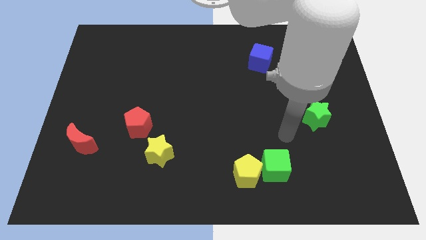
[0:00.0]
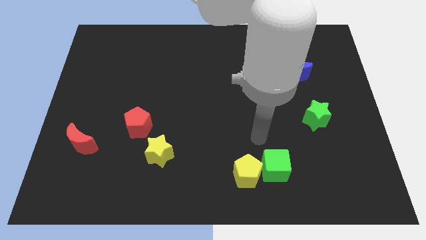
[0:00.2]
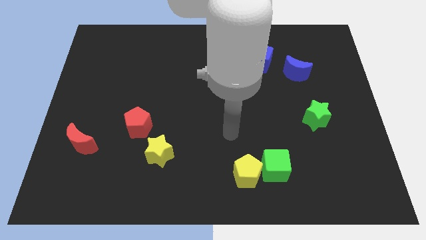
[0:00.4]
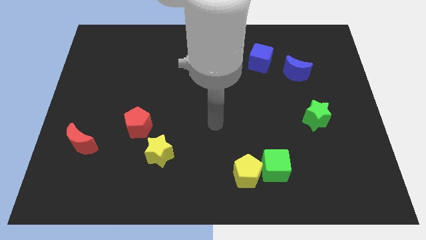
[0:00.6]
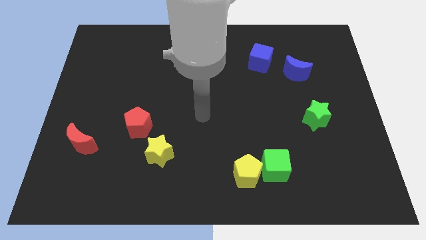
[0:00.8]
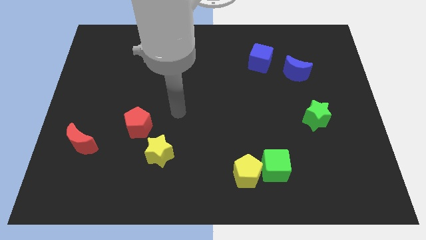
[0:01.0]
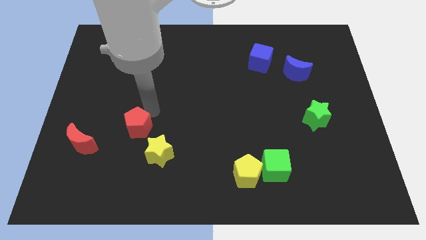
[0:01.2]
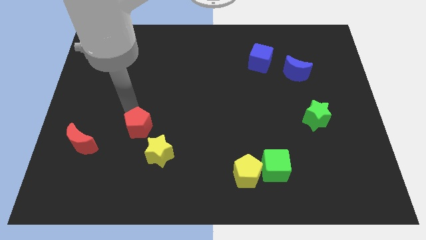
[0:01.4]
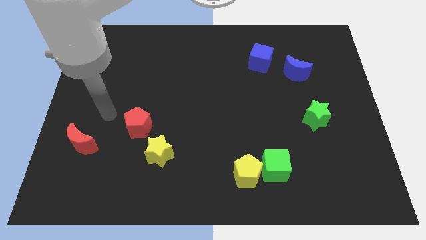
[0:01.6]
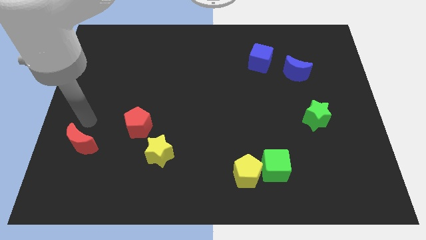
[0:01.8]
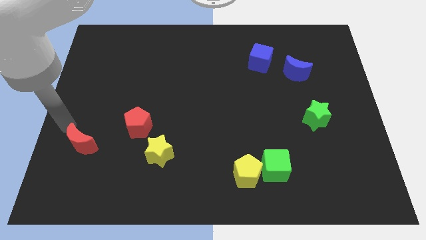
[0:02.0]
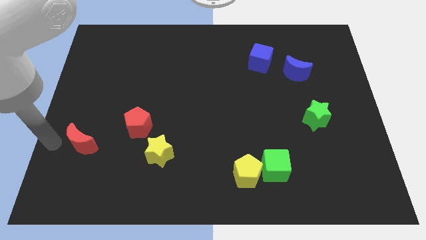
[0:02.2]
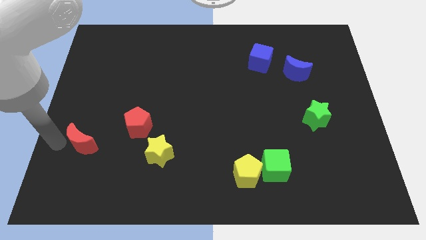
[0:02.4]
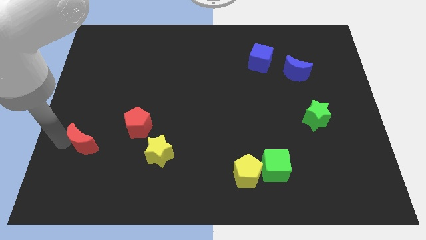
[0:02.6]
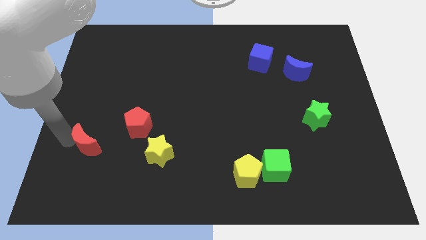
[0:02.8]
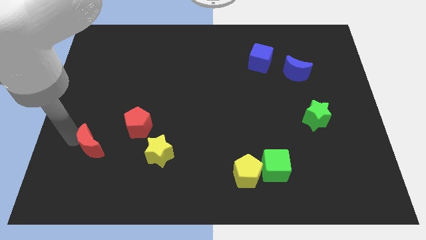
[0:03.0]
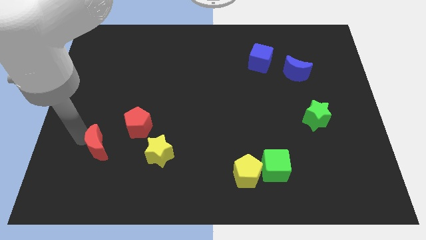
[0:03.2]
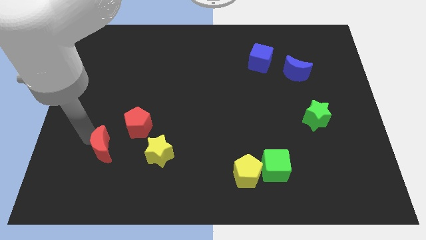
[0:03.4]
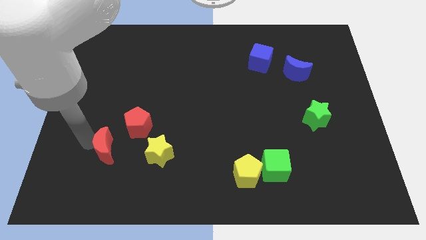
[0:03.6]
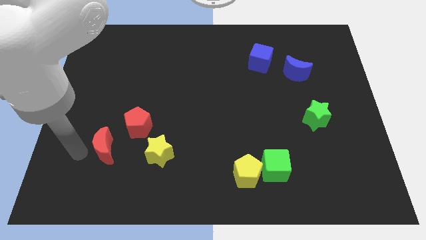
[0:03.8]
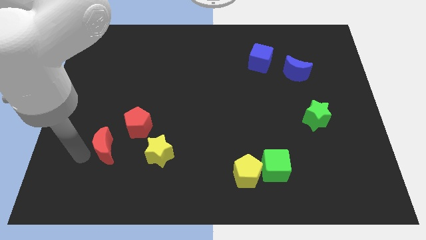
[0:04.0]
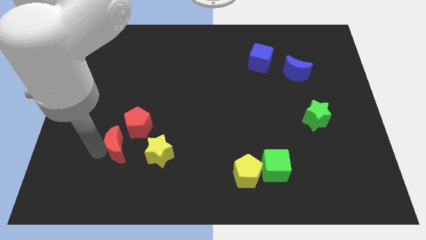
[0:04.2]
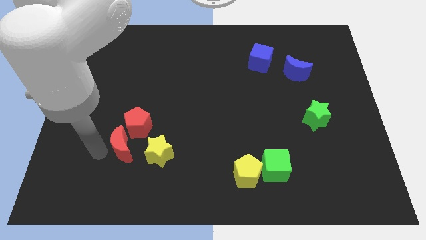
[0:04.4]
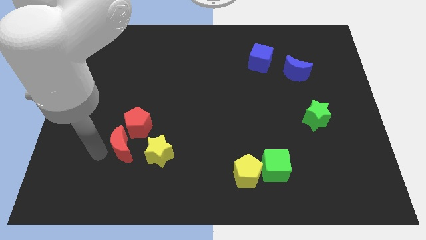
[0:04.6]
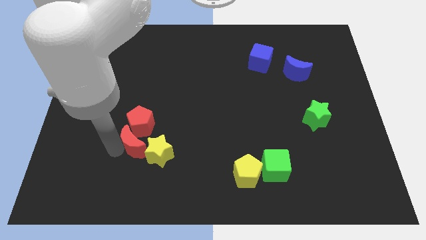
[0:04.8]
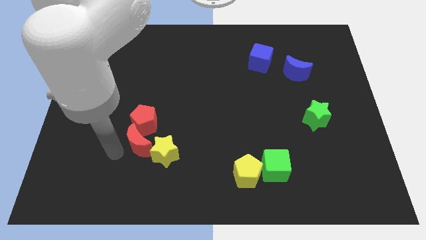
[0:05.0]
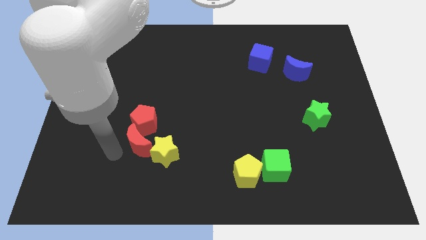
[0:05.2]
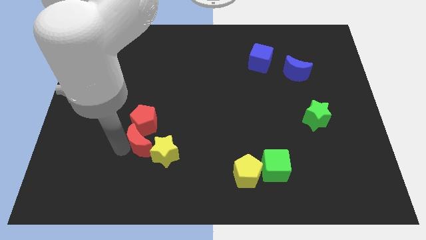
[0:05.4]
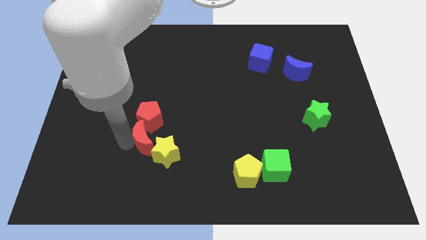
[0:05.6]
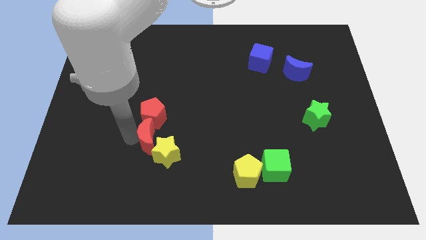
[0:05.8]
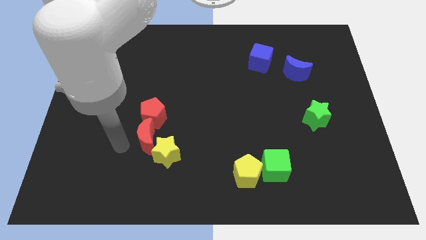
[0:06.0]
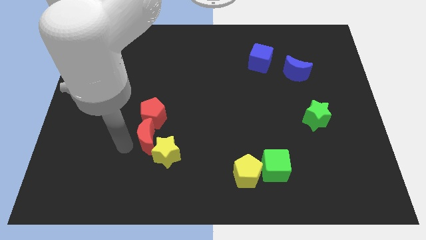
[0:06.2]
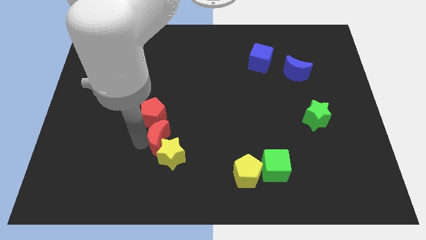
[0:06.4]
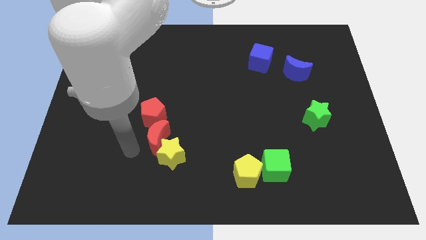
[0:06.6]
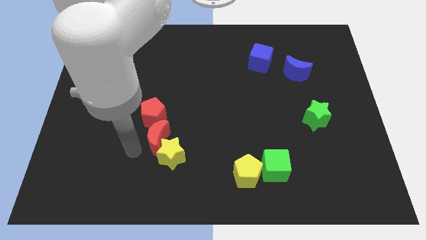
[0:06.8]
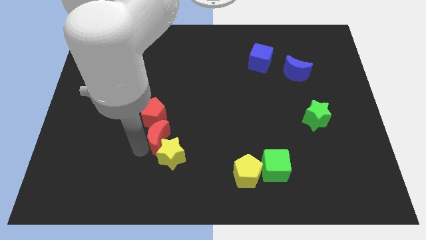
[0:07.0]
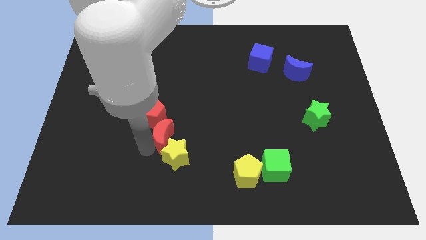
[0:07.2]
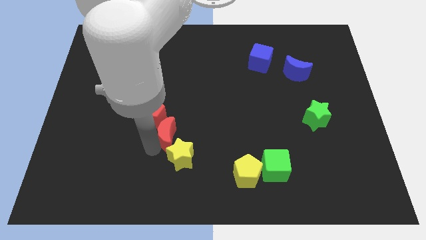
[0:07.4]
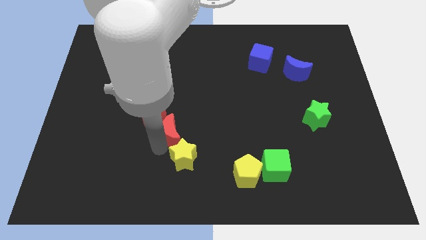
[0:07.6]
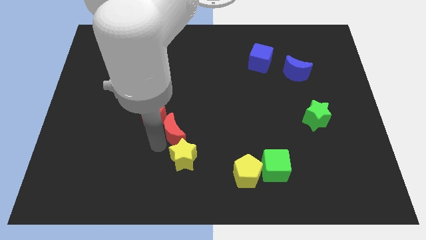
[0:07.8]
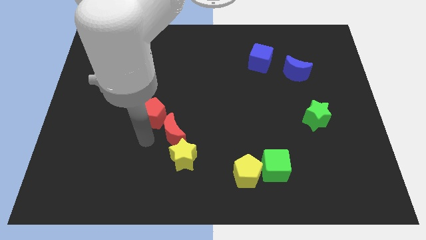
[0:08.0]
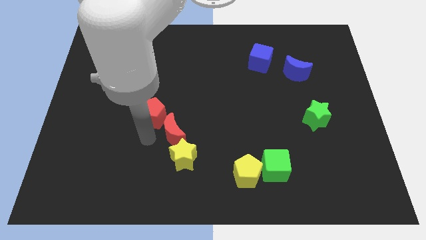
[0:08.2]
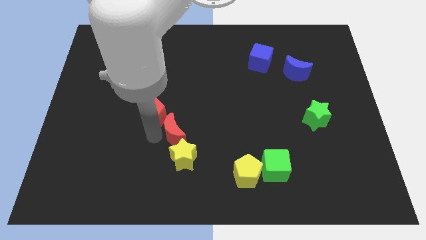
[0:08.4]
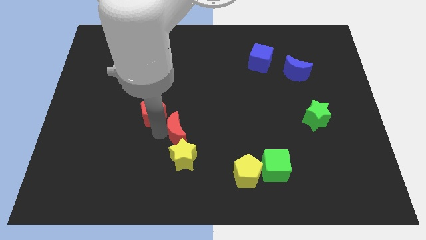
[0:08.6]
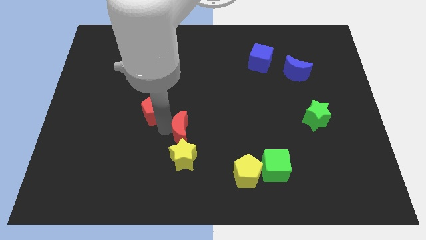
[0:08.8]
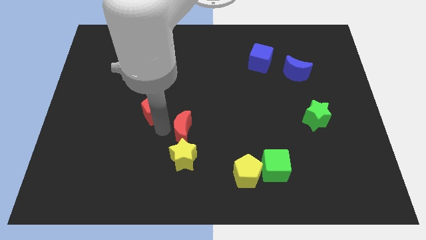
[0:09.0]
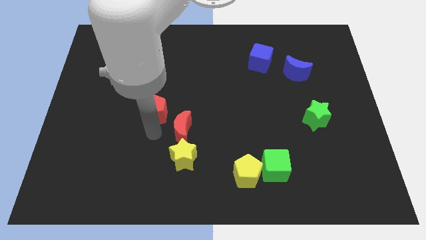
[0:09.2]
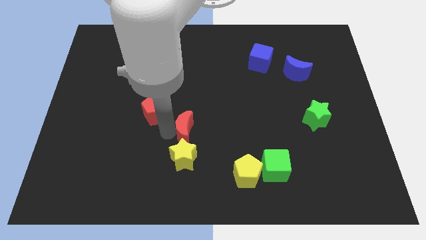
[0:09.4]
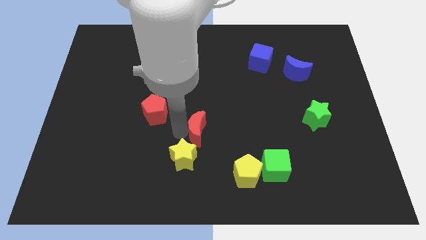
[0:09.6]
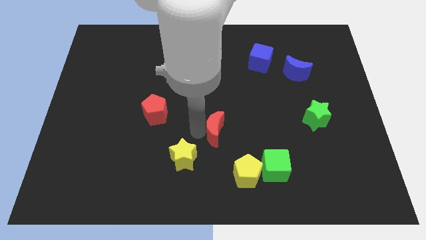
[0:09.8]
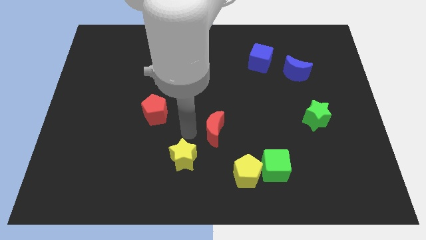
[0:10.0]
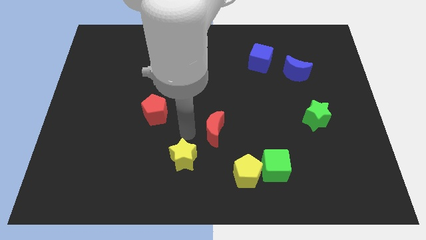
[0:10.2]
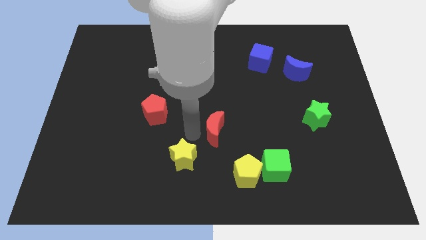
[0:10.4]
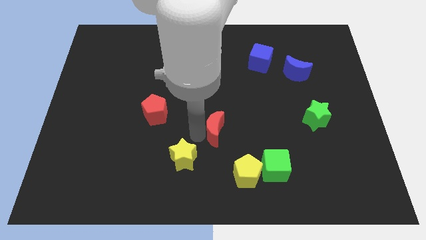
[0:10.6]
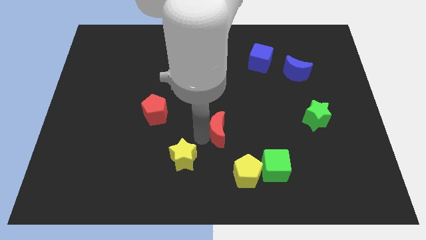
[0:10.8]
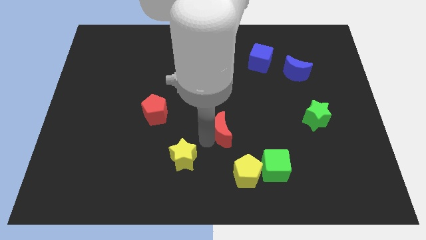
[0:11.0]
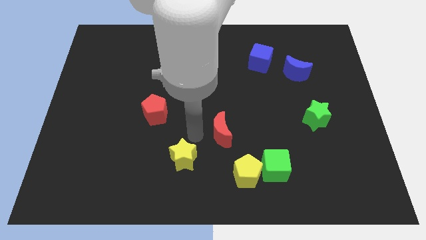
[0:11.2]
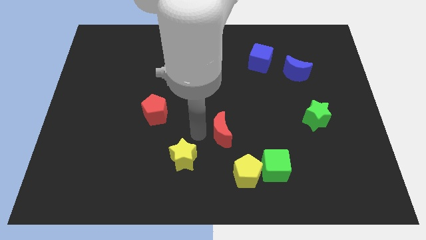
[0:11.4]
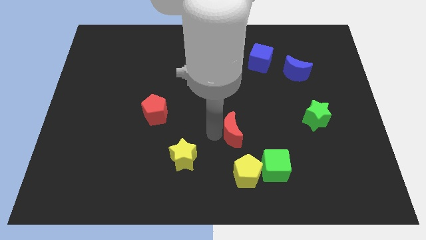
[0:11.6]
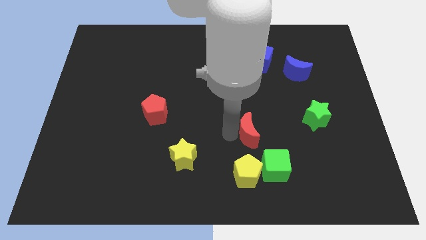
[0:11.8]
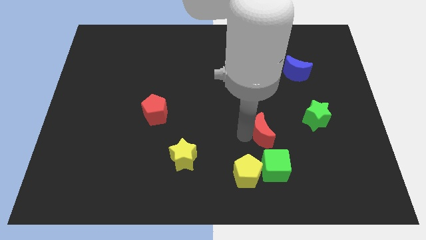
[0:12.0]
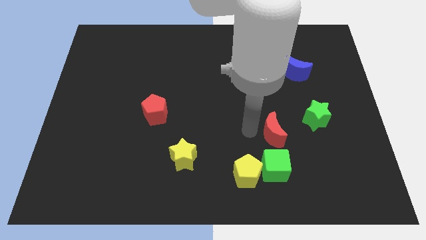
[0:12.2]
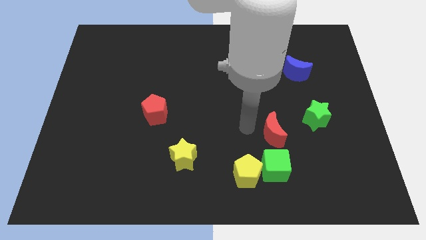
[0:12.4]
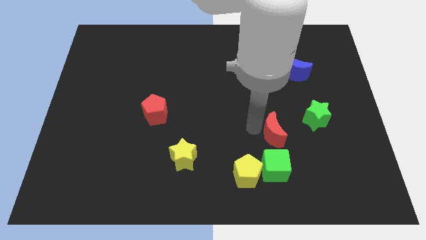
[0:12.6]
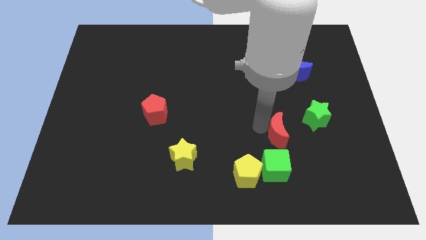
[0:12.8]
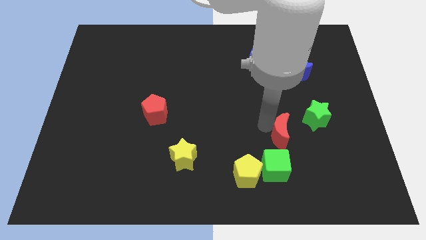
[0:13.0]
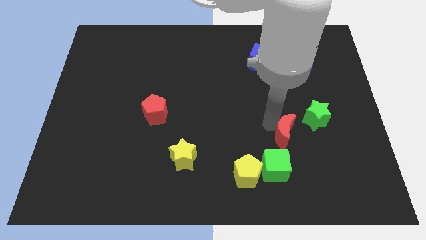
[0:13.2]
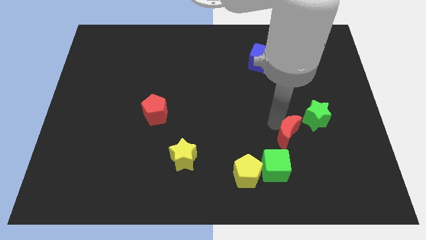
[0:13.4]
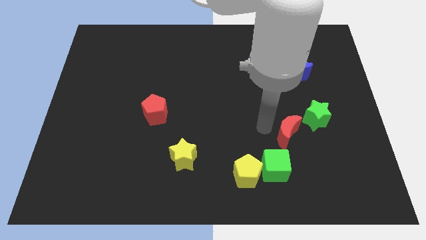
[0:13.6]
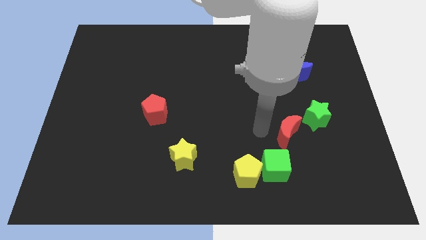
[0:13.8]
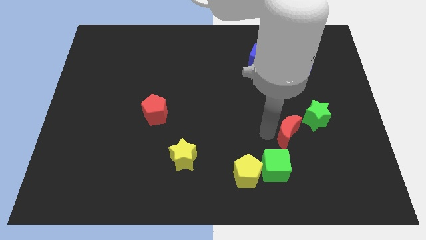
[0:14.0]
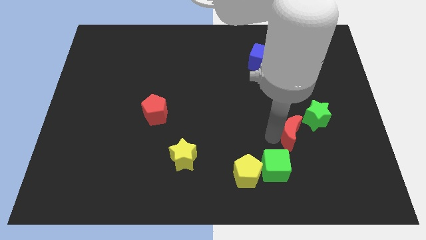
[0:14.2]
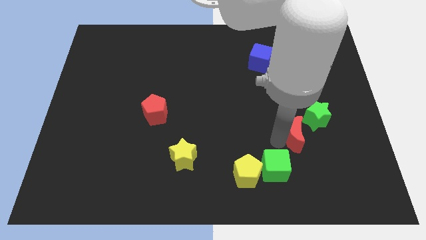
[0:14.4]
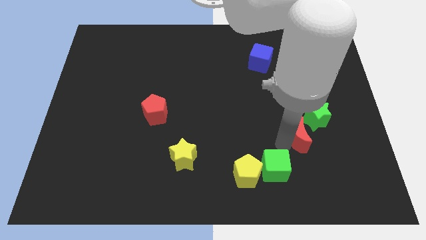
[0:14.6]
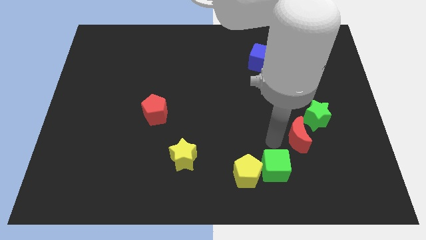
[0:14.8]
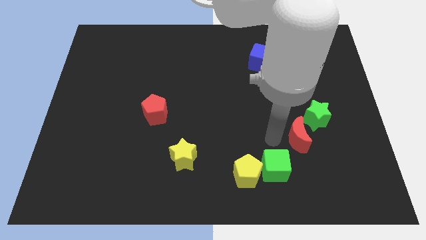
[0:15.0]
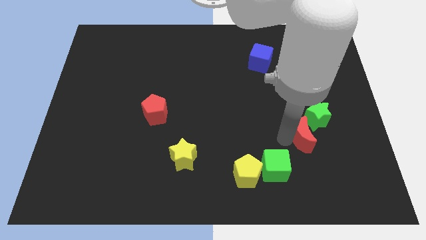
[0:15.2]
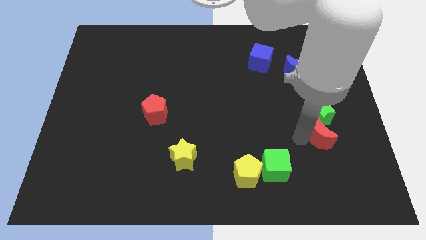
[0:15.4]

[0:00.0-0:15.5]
slide the red moon diagonally down and to the right of the green star
